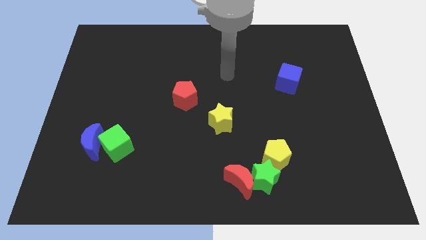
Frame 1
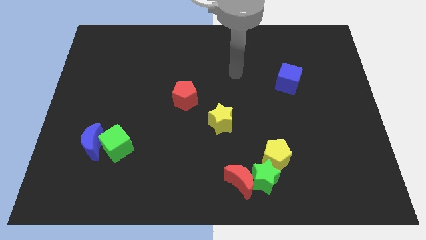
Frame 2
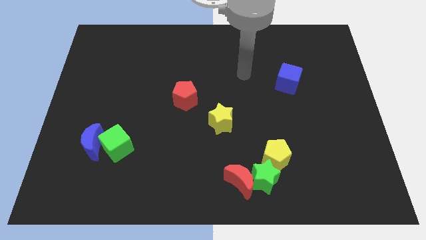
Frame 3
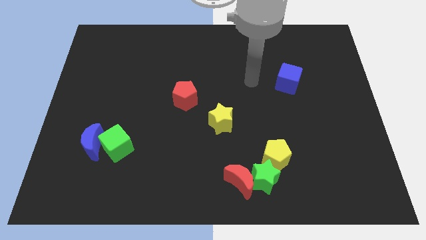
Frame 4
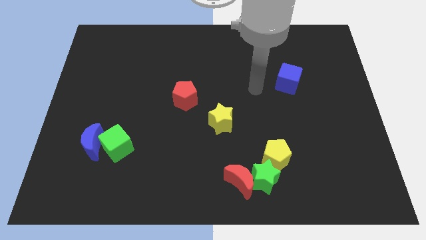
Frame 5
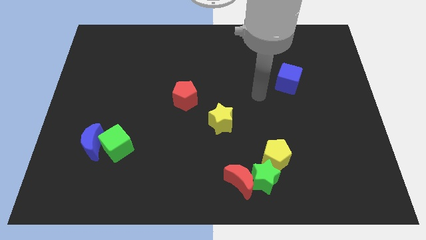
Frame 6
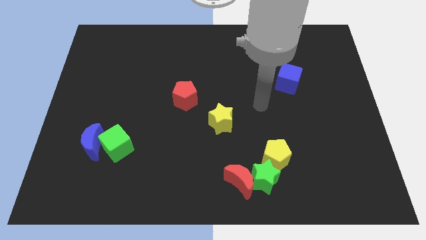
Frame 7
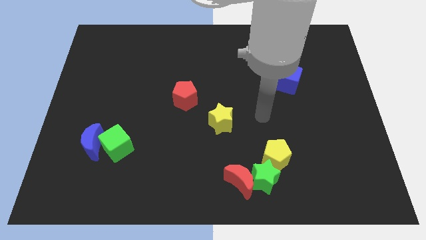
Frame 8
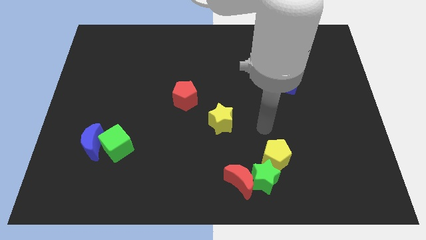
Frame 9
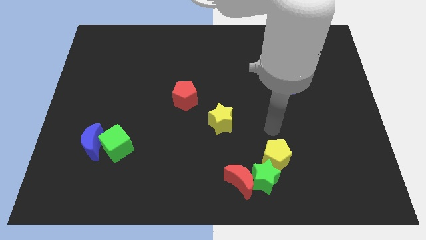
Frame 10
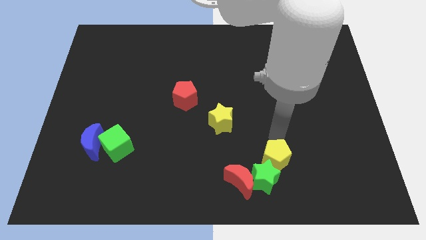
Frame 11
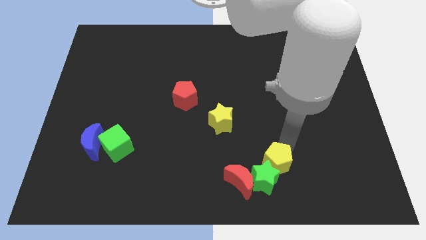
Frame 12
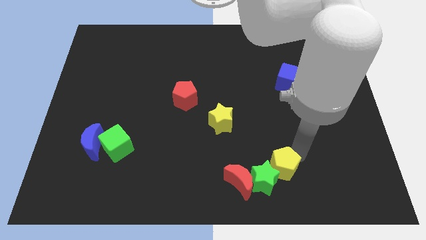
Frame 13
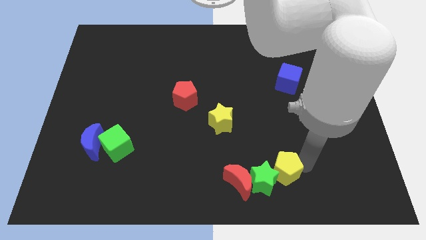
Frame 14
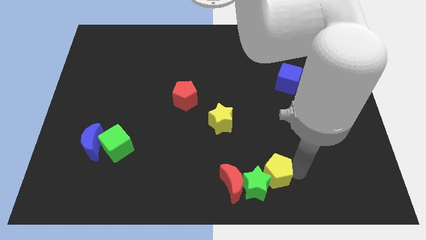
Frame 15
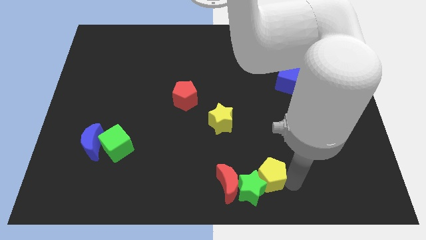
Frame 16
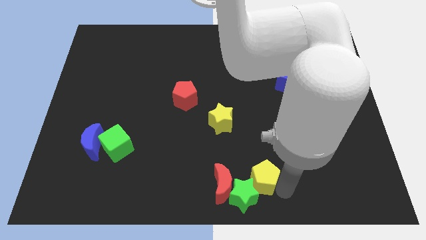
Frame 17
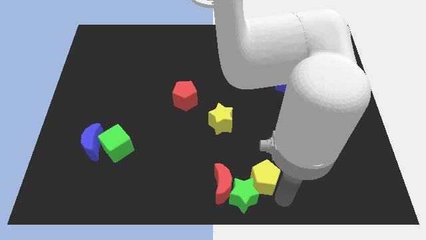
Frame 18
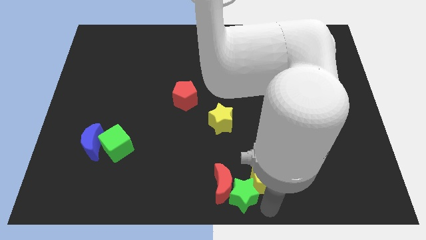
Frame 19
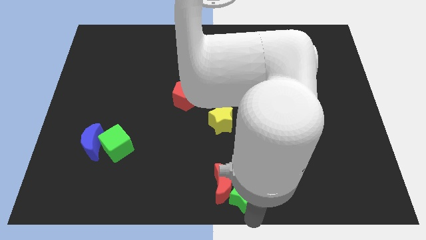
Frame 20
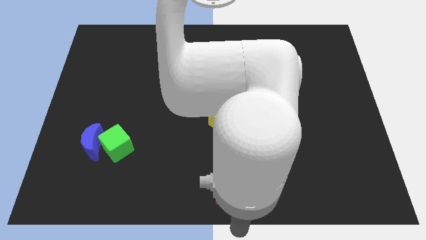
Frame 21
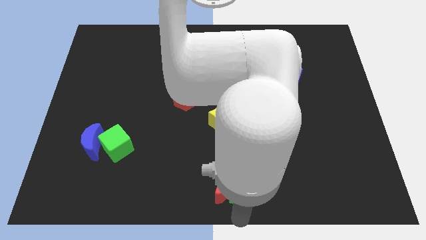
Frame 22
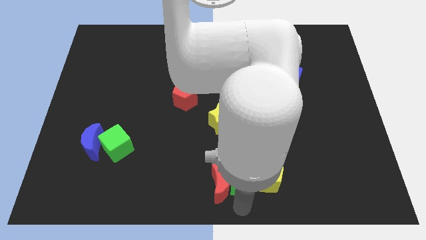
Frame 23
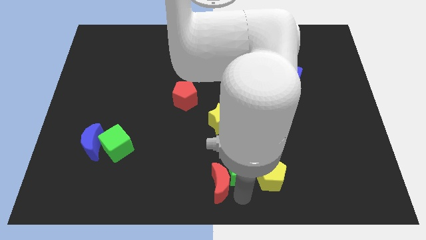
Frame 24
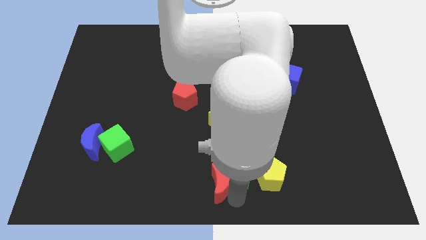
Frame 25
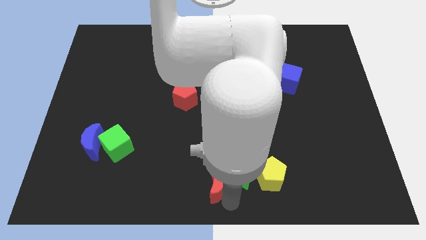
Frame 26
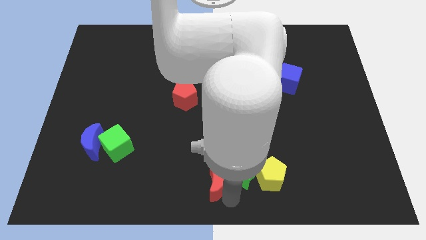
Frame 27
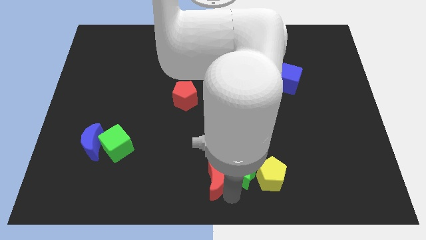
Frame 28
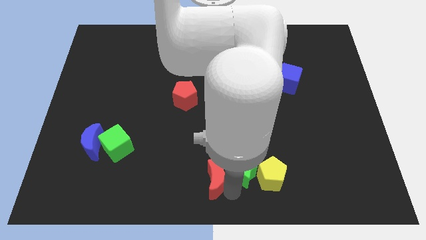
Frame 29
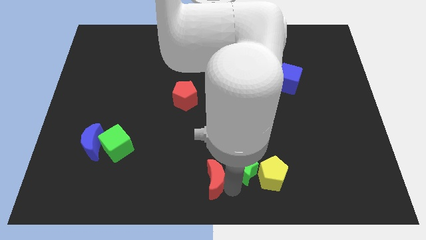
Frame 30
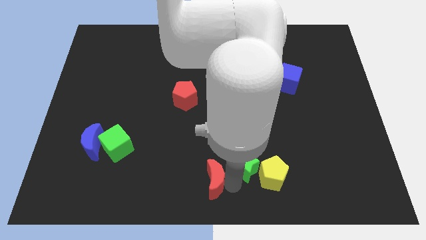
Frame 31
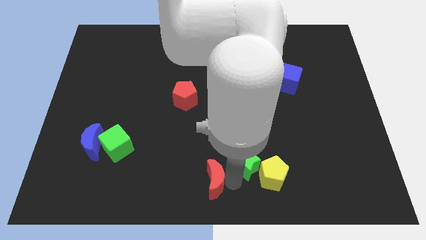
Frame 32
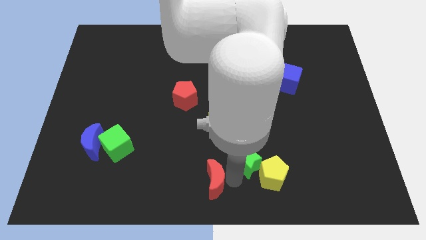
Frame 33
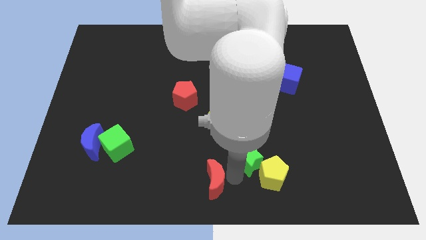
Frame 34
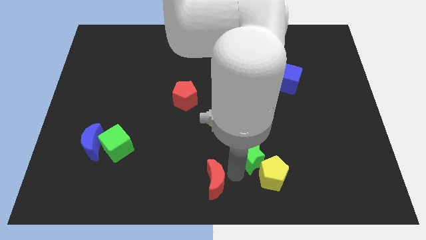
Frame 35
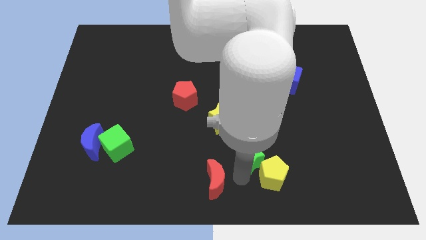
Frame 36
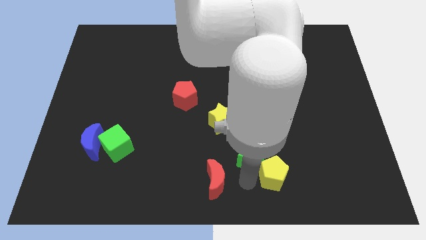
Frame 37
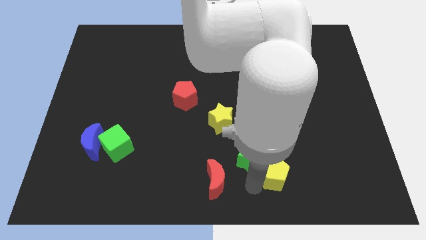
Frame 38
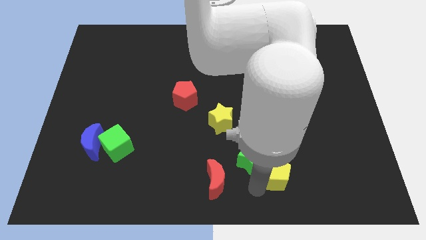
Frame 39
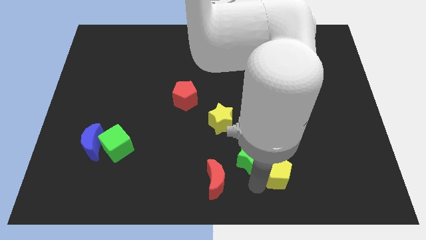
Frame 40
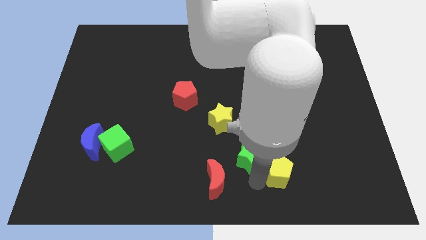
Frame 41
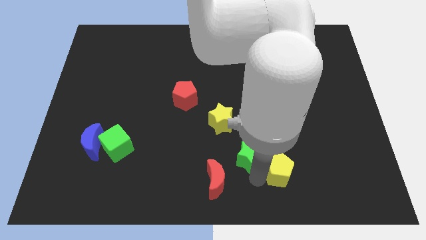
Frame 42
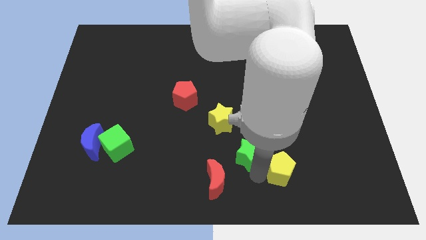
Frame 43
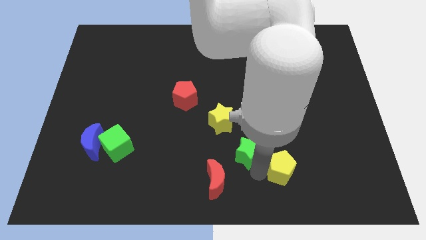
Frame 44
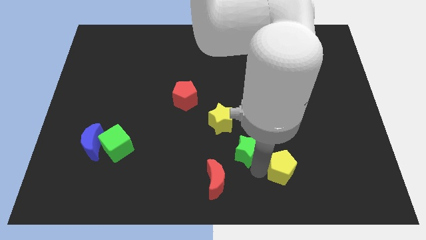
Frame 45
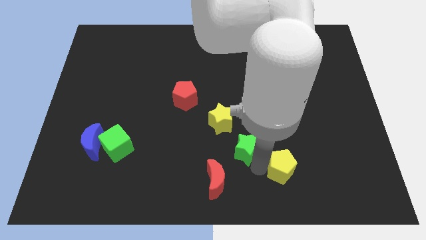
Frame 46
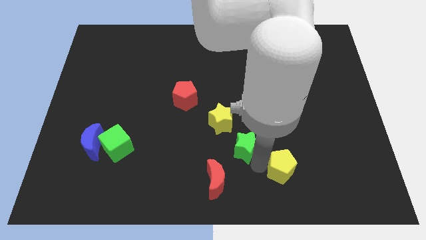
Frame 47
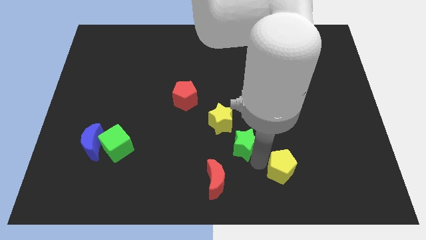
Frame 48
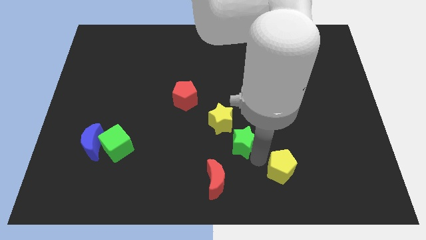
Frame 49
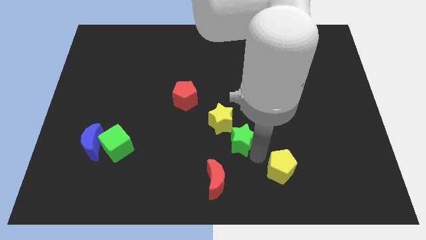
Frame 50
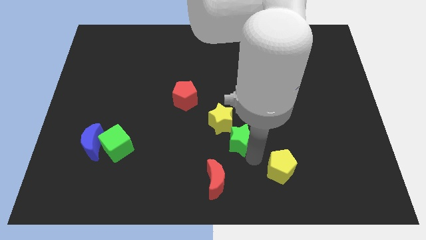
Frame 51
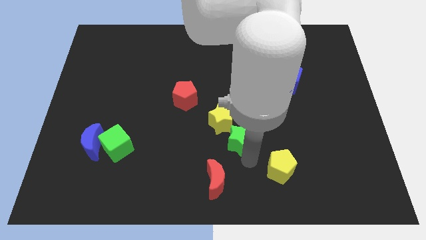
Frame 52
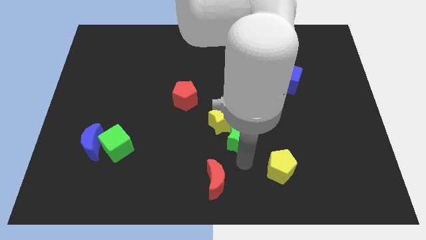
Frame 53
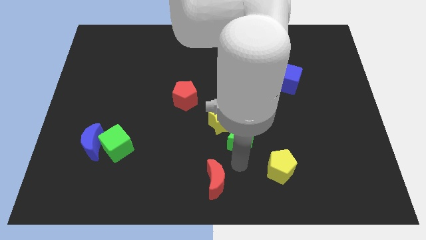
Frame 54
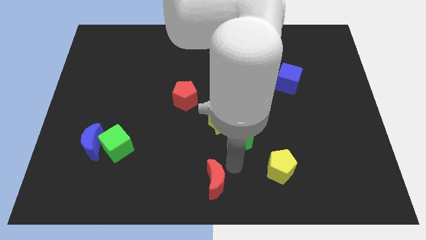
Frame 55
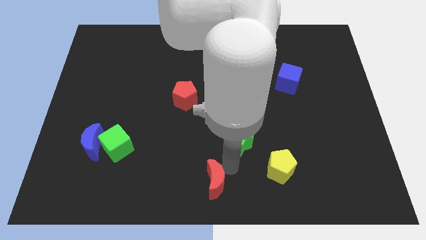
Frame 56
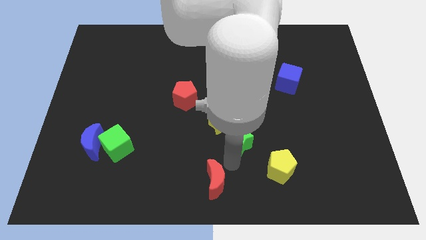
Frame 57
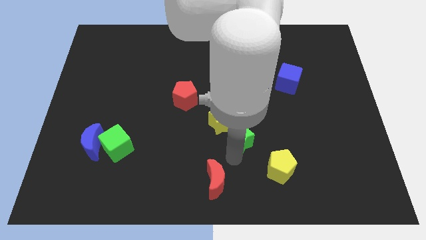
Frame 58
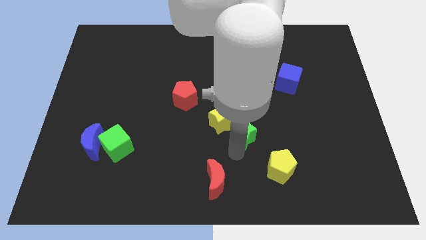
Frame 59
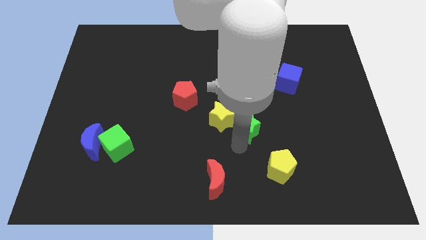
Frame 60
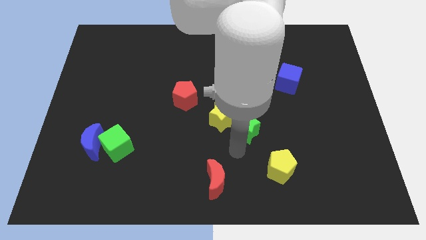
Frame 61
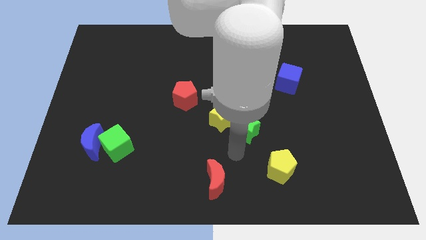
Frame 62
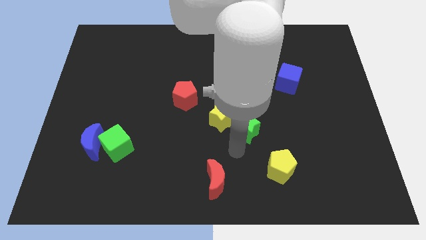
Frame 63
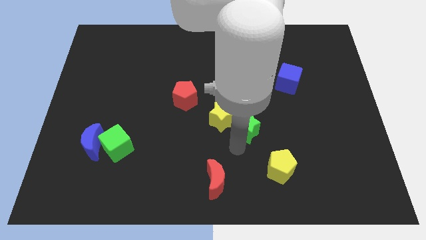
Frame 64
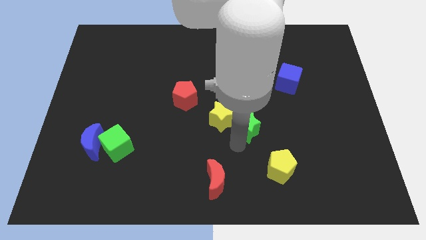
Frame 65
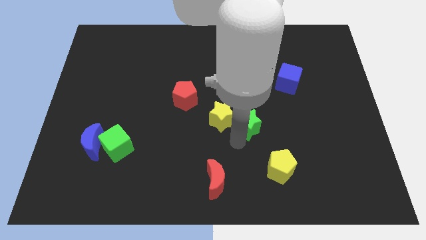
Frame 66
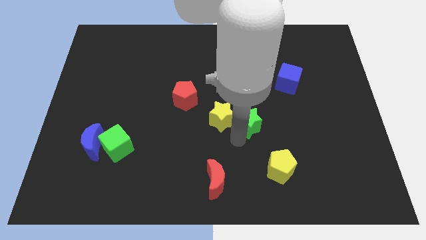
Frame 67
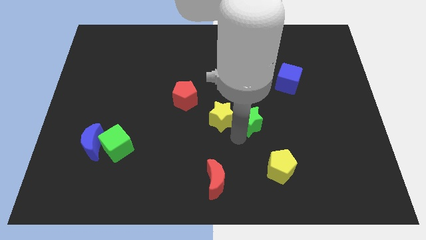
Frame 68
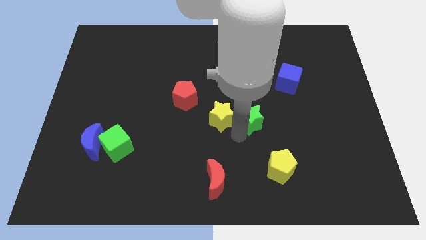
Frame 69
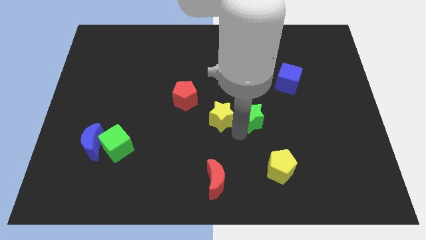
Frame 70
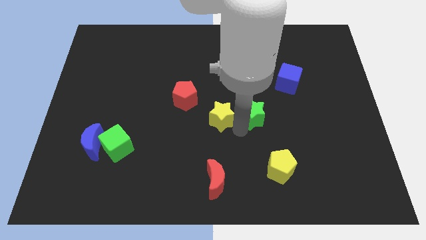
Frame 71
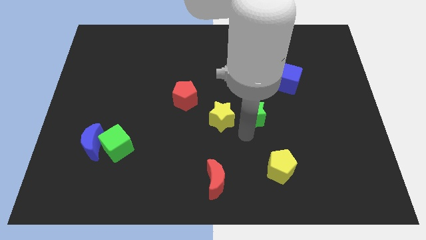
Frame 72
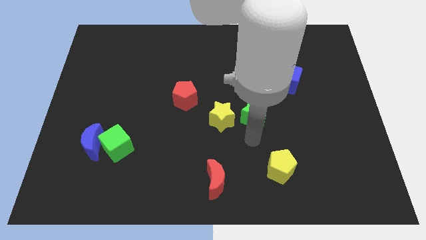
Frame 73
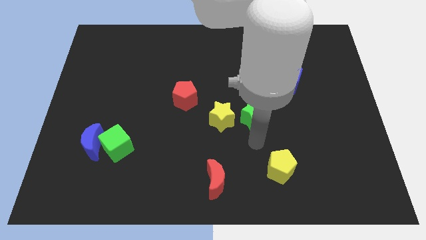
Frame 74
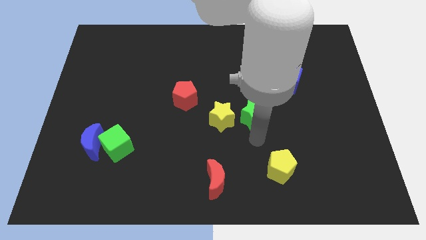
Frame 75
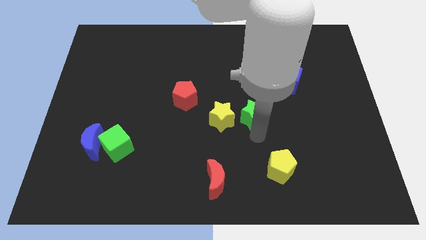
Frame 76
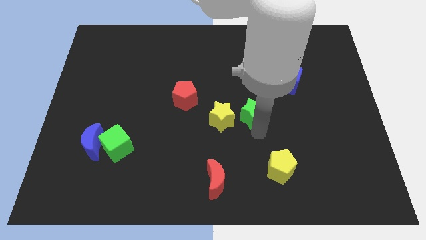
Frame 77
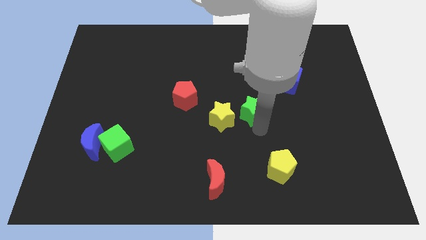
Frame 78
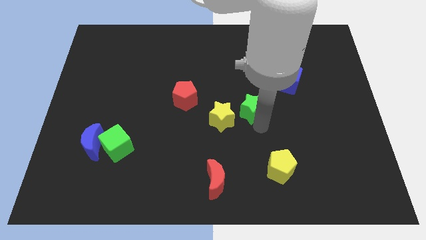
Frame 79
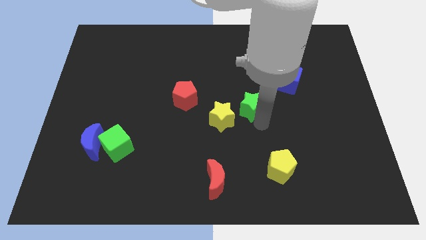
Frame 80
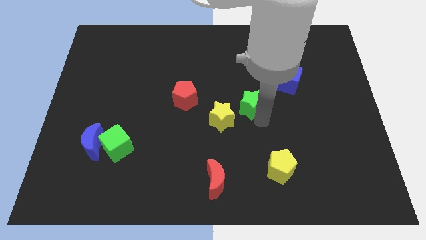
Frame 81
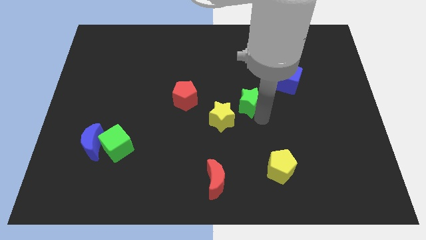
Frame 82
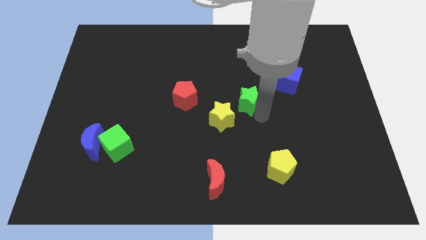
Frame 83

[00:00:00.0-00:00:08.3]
push the green star up
